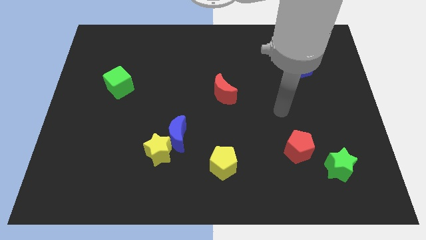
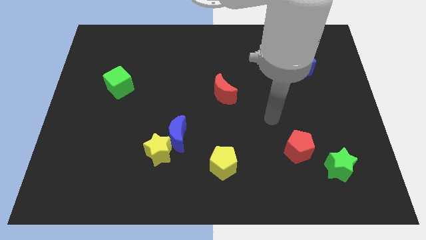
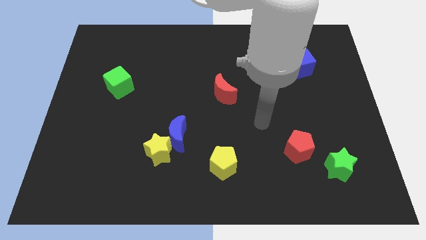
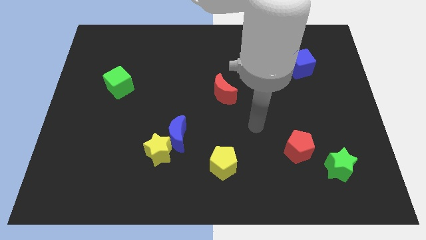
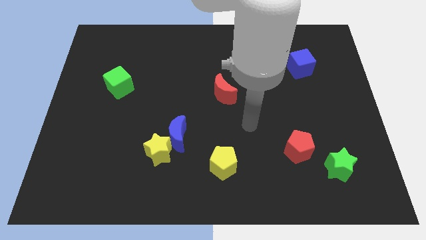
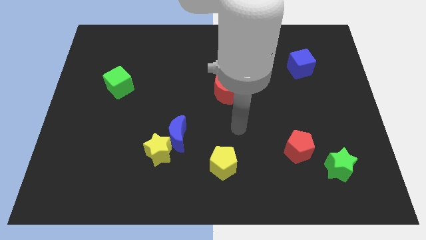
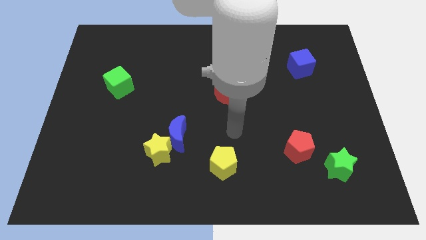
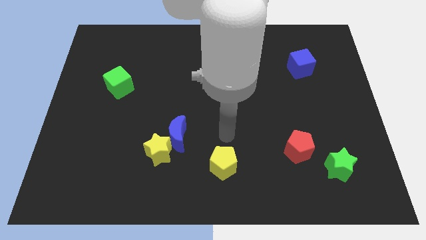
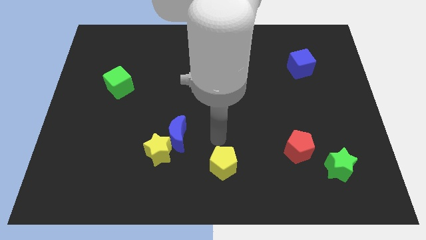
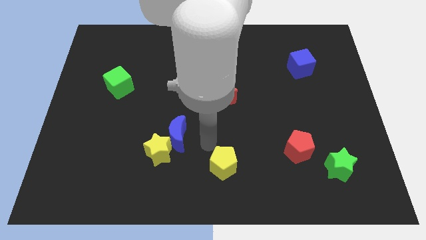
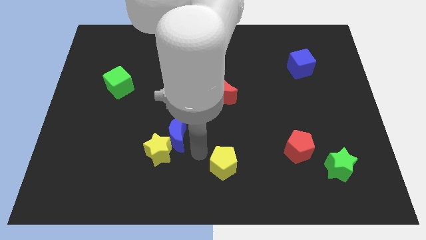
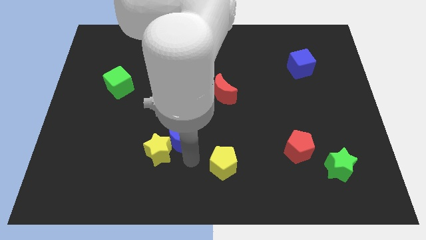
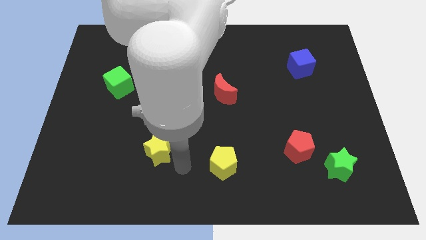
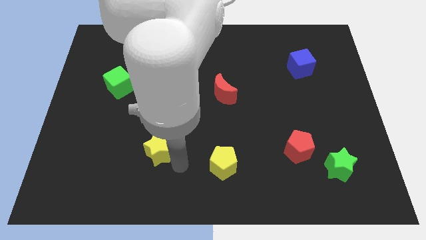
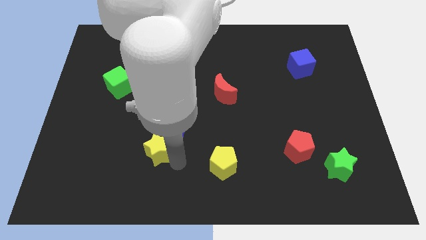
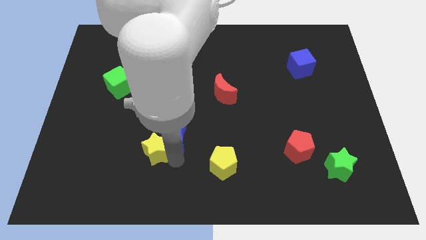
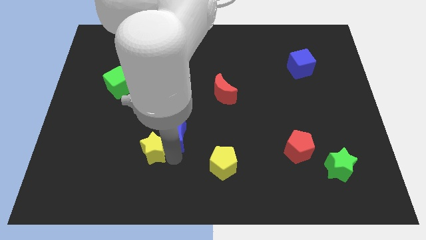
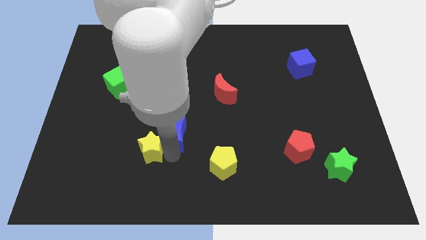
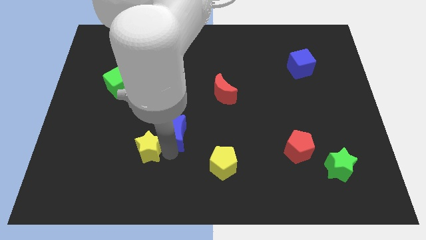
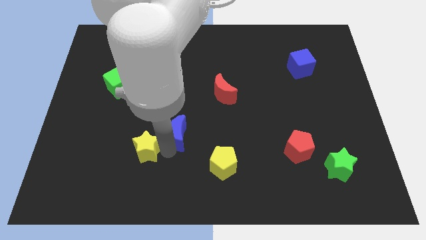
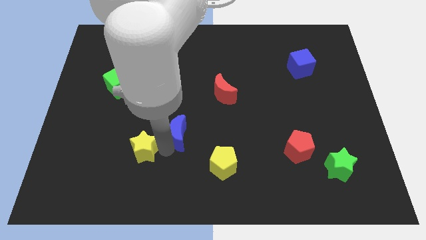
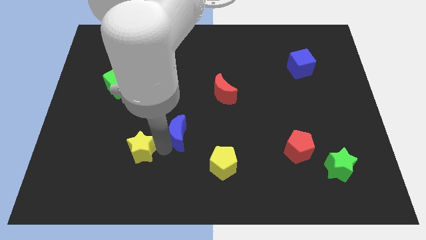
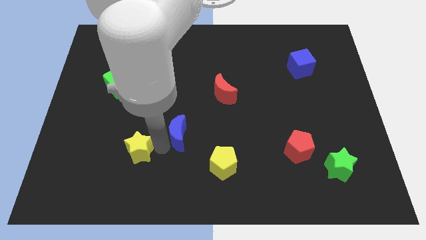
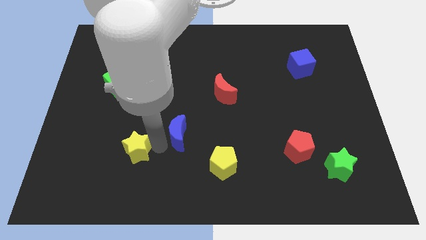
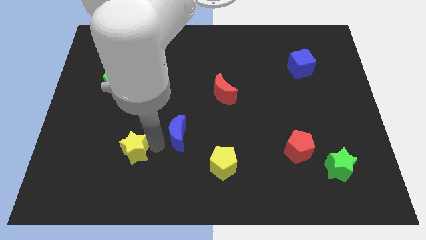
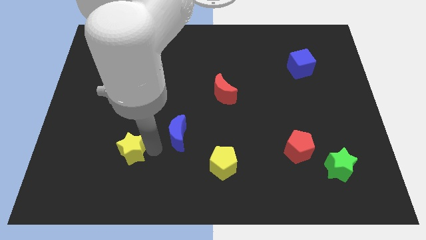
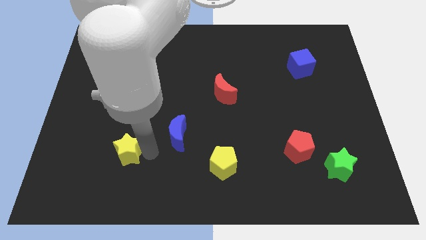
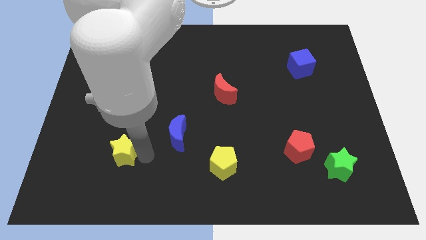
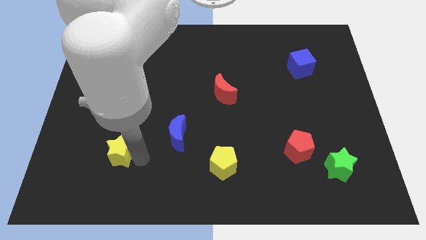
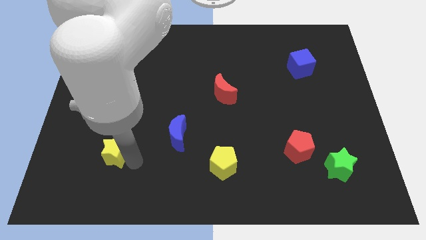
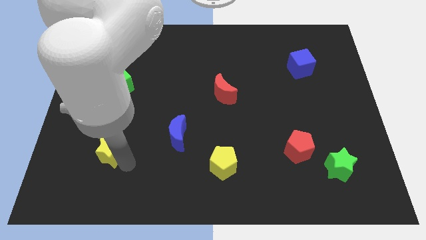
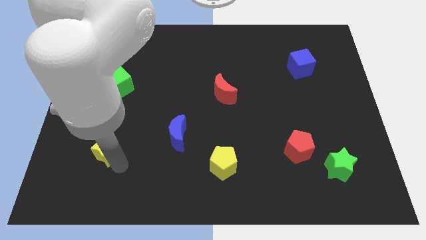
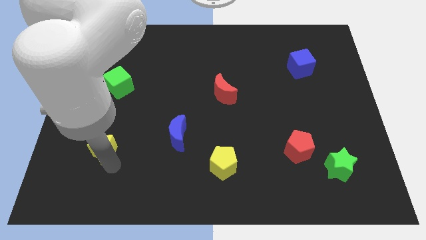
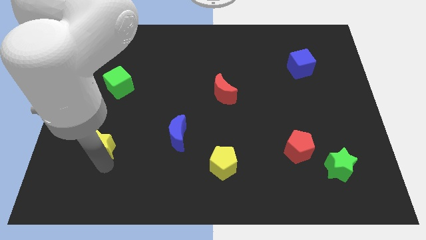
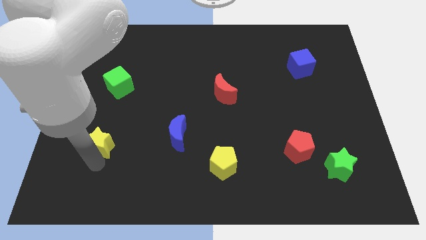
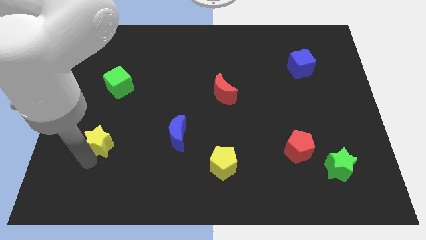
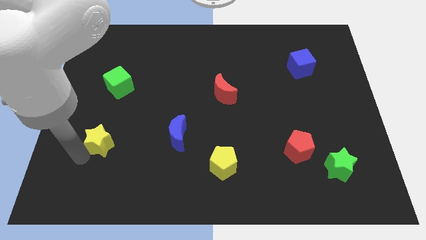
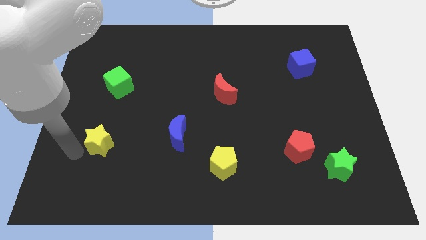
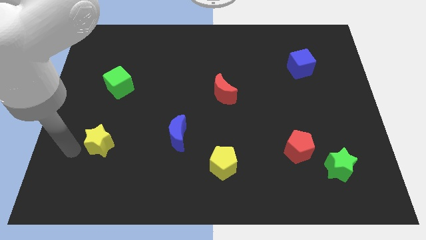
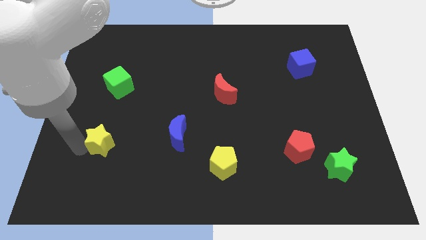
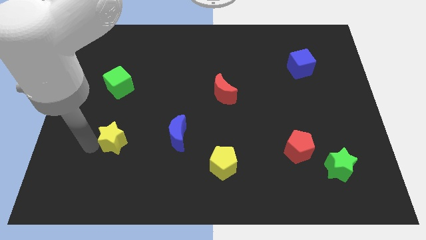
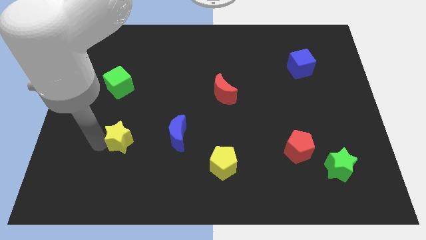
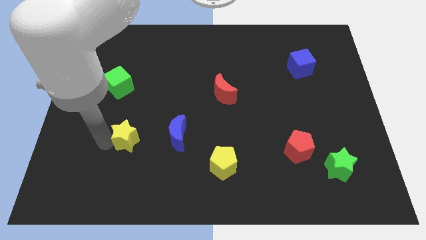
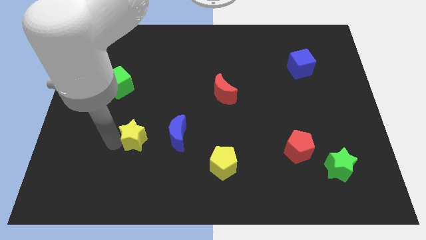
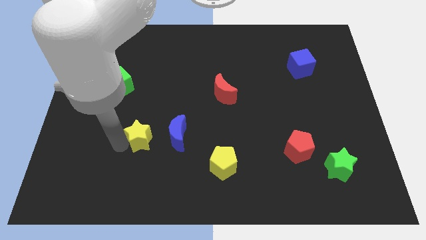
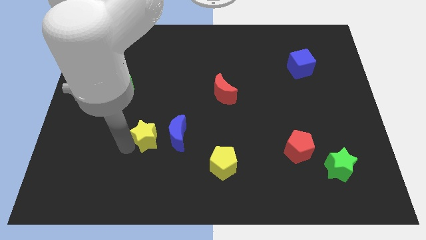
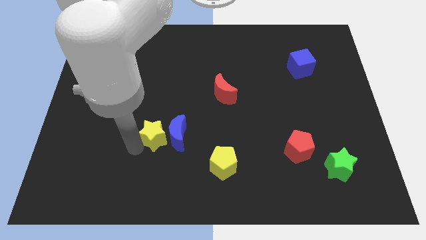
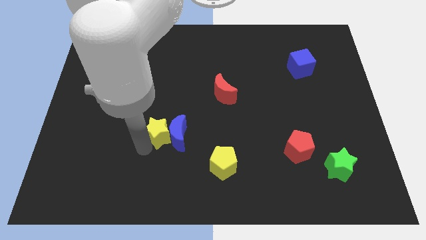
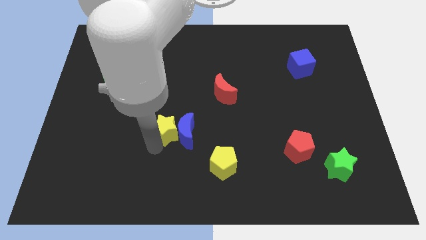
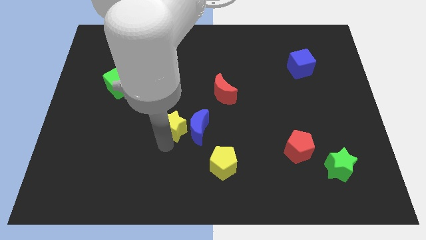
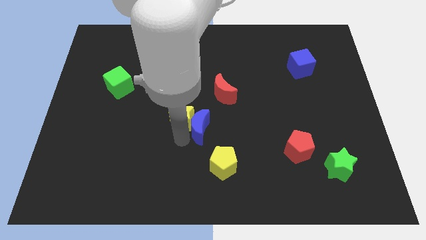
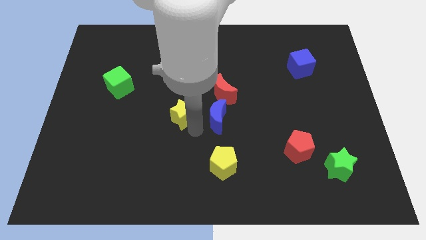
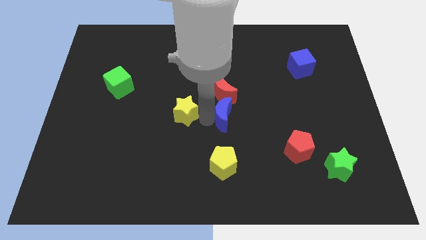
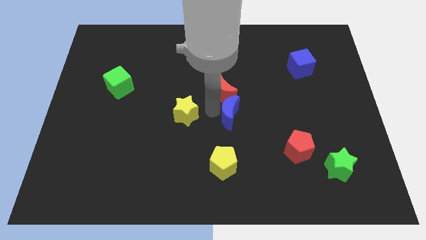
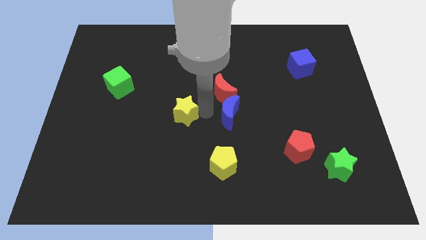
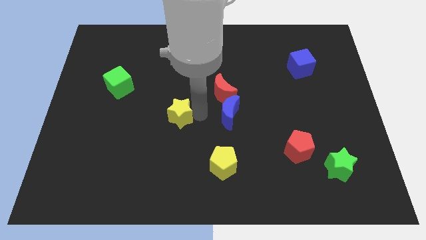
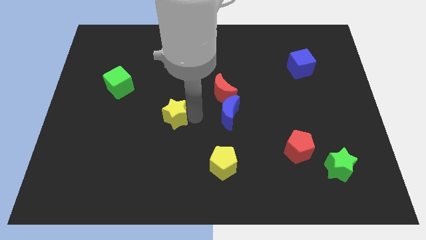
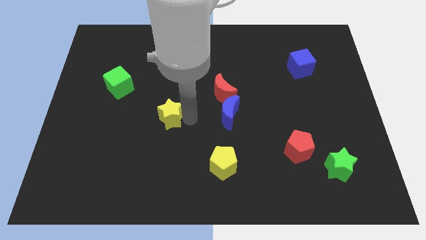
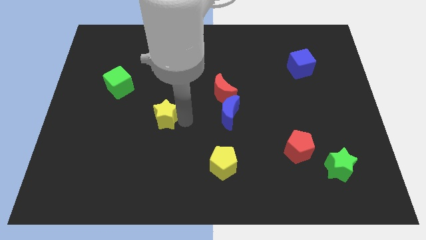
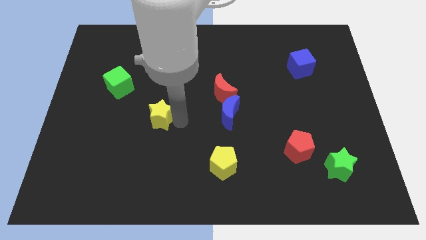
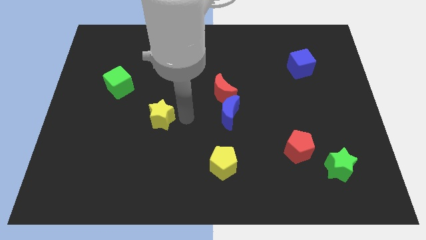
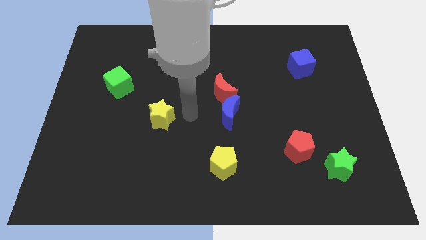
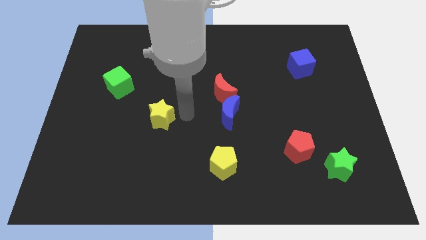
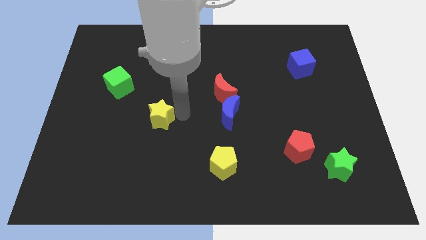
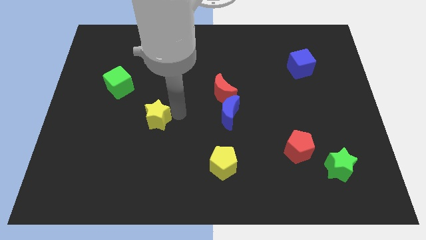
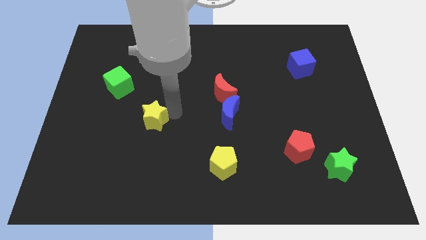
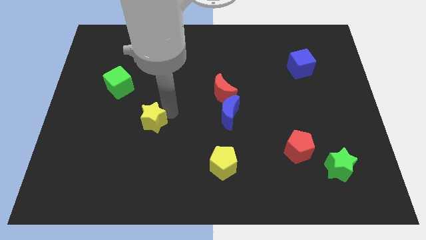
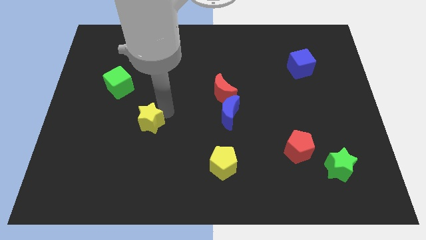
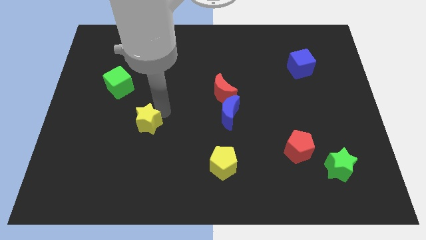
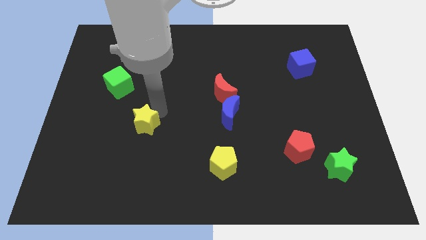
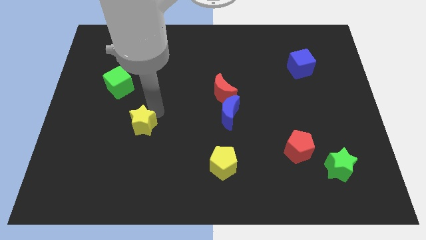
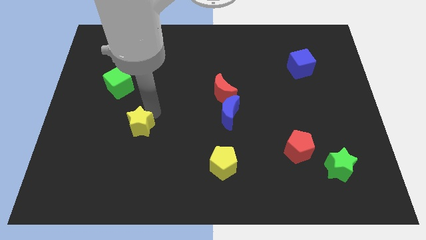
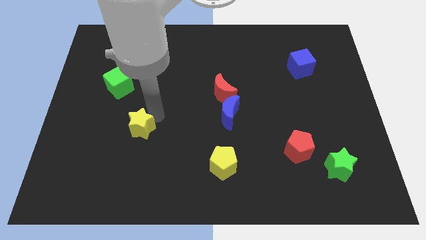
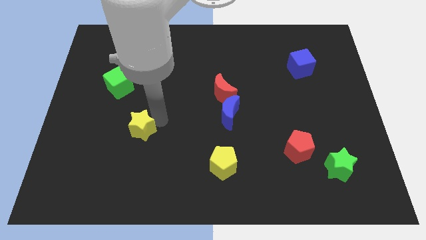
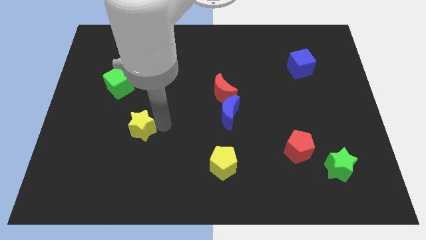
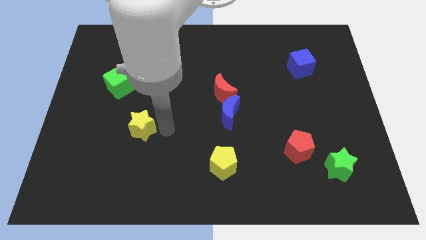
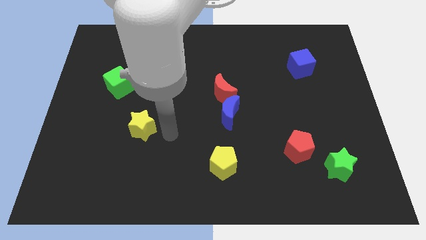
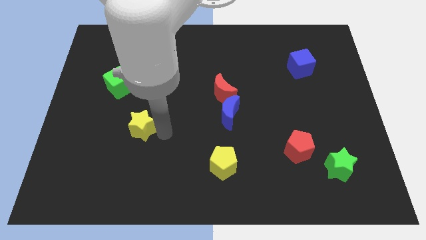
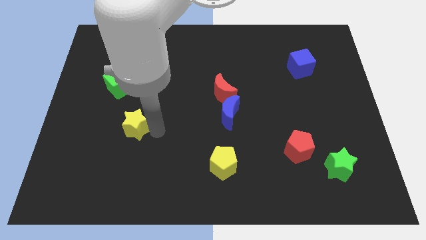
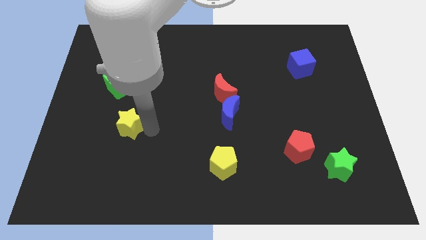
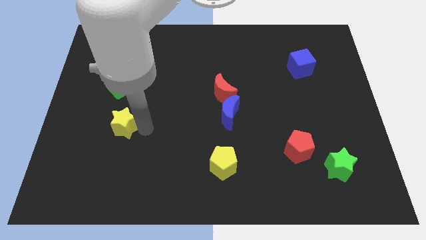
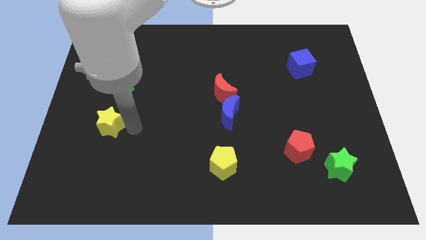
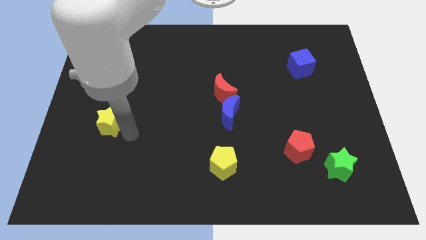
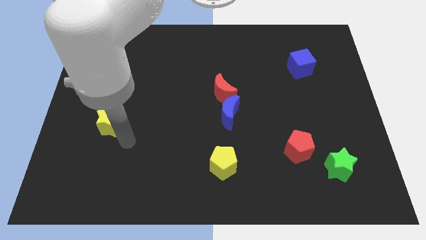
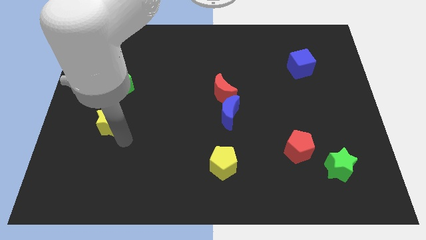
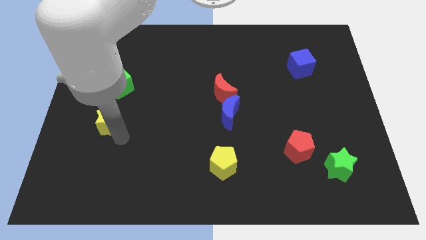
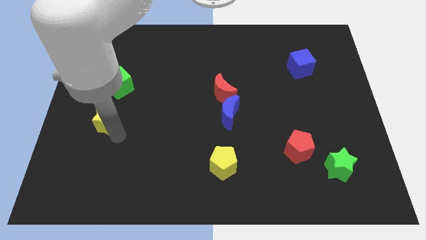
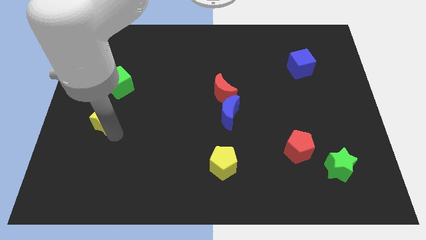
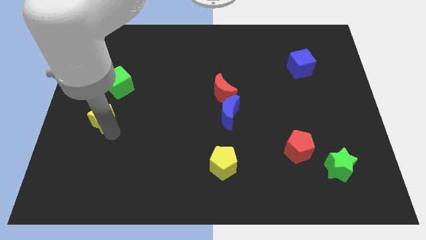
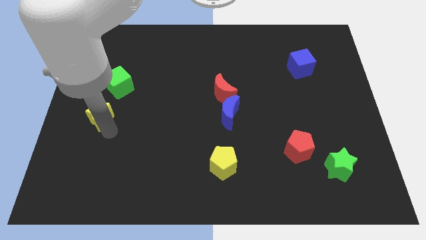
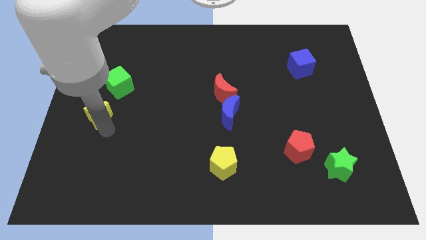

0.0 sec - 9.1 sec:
put the yellow star diagonally down and to the left of the green cube
